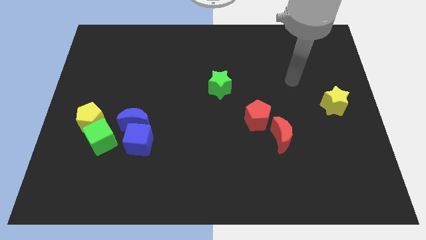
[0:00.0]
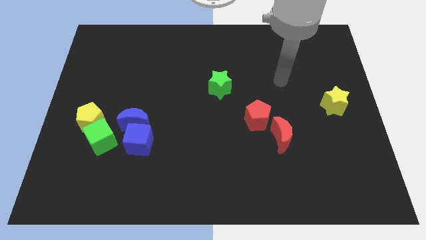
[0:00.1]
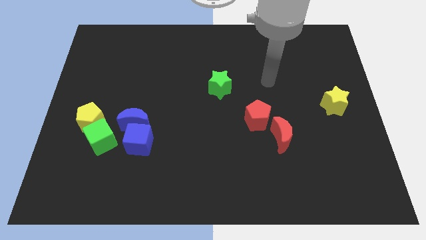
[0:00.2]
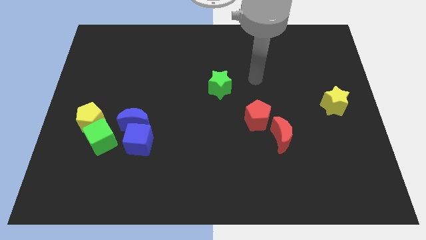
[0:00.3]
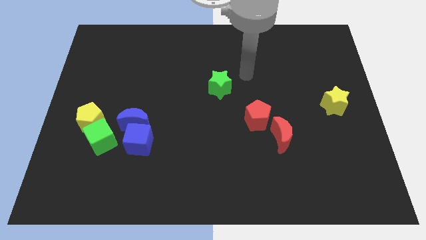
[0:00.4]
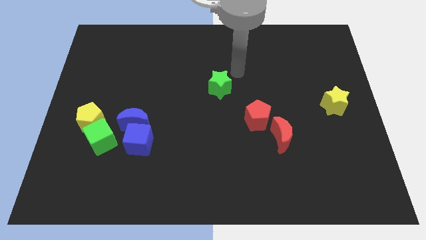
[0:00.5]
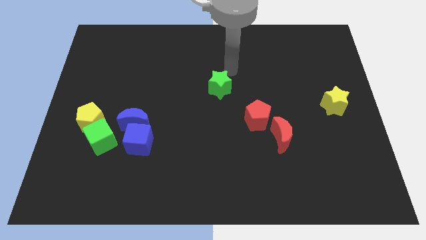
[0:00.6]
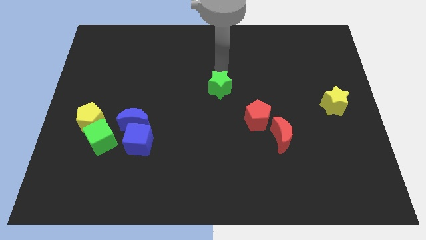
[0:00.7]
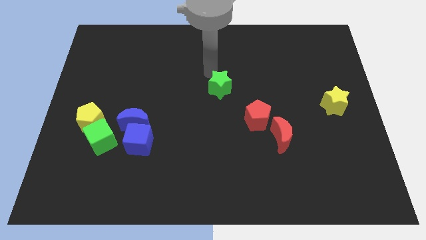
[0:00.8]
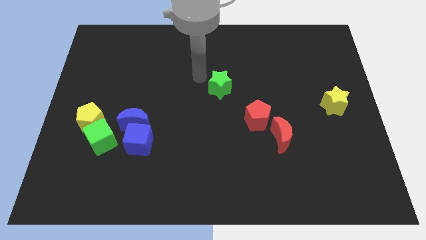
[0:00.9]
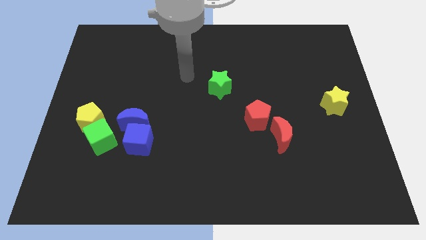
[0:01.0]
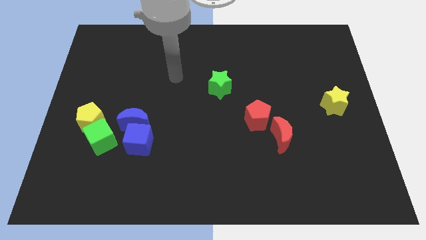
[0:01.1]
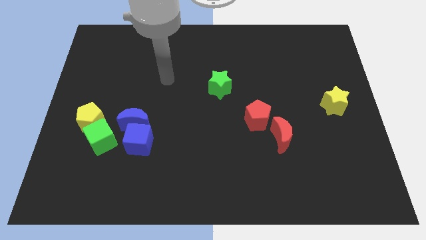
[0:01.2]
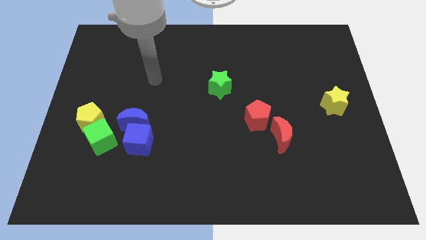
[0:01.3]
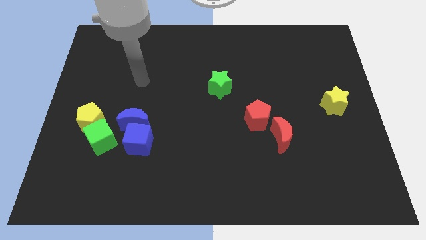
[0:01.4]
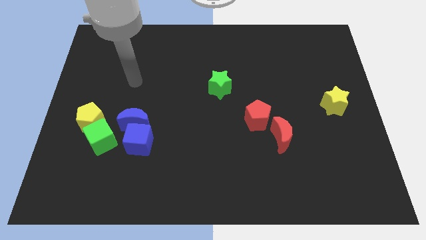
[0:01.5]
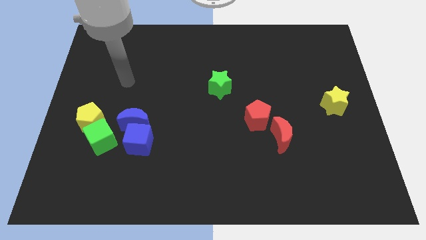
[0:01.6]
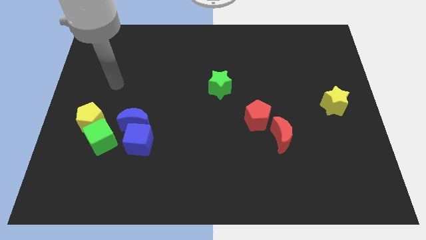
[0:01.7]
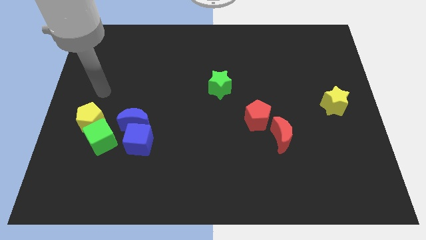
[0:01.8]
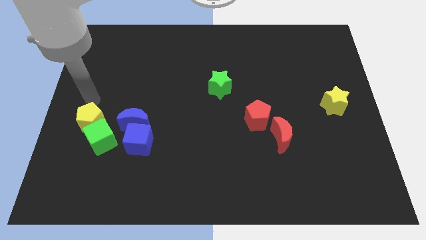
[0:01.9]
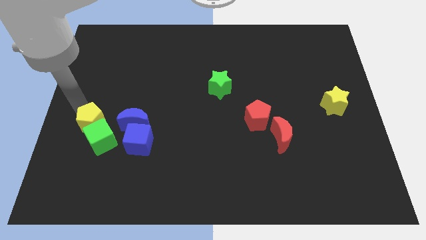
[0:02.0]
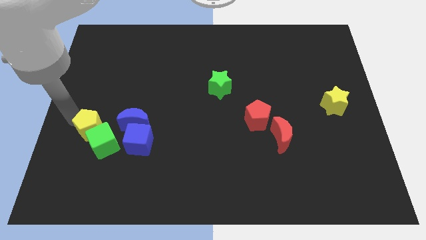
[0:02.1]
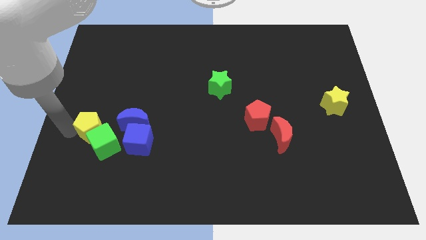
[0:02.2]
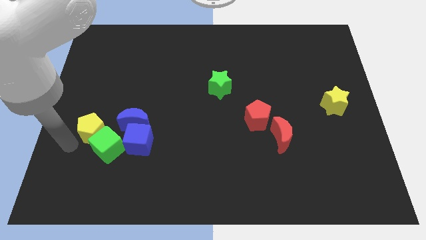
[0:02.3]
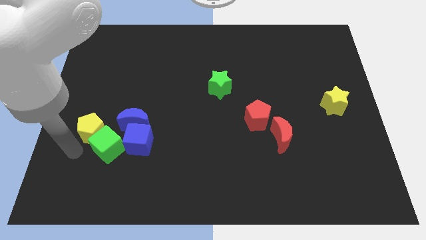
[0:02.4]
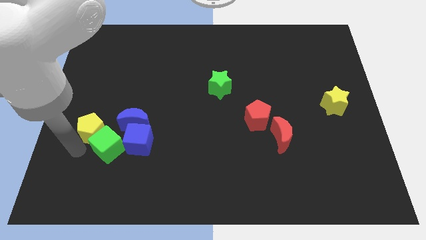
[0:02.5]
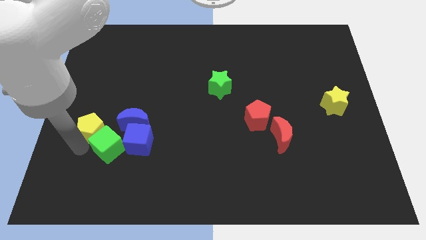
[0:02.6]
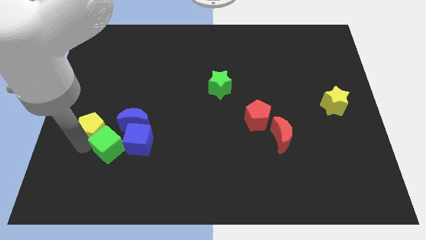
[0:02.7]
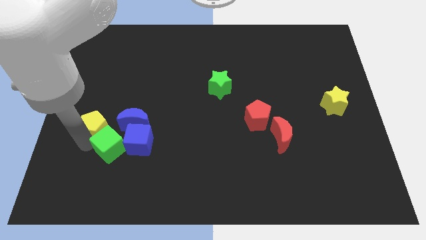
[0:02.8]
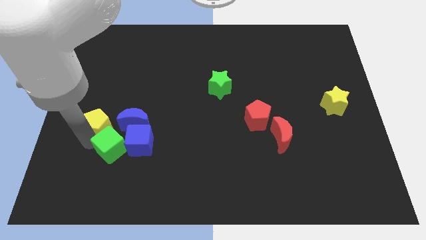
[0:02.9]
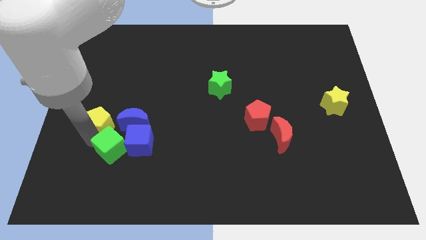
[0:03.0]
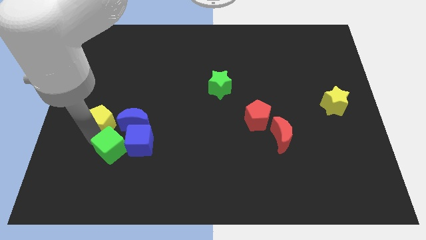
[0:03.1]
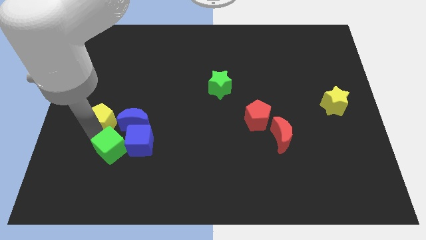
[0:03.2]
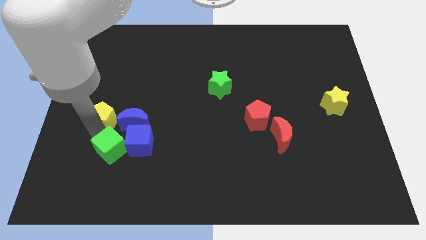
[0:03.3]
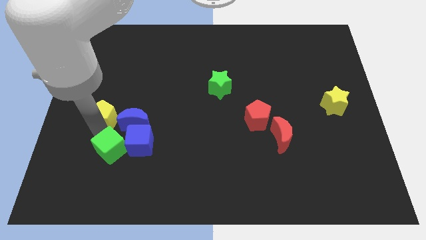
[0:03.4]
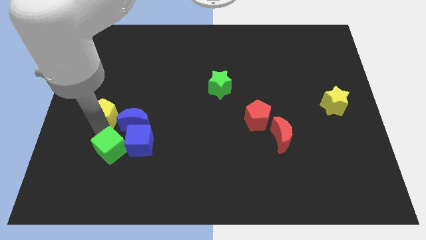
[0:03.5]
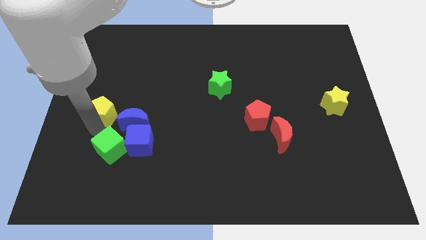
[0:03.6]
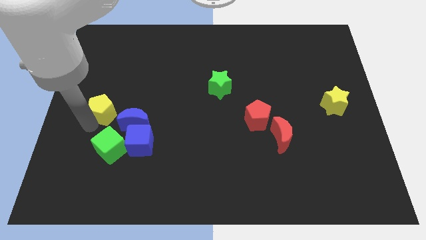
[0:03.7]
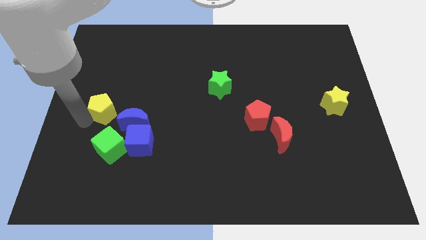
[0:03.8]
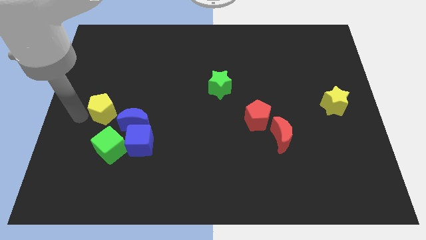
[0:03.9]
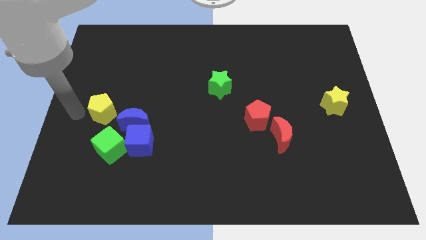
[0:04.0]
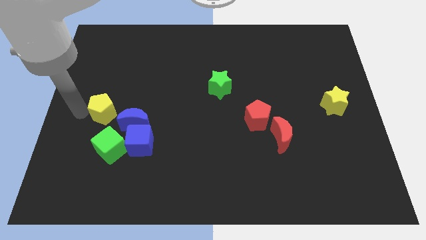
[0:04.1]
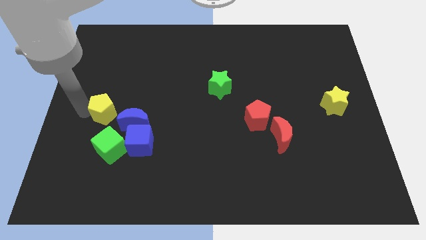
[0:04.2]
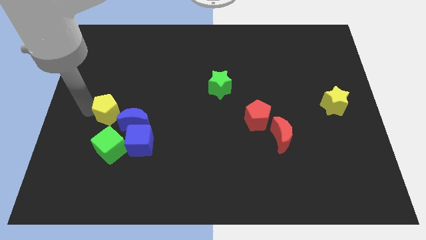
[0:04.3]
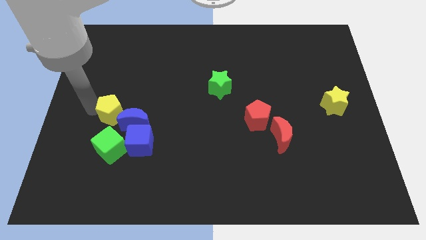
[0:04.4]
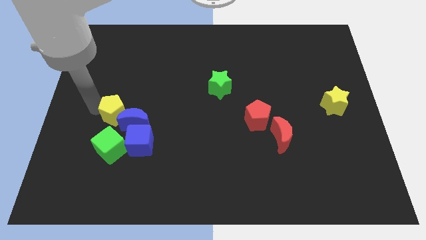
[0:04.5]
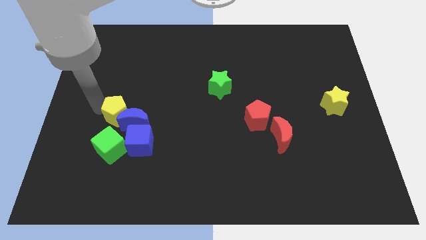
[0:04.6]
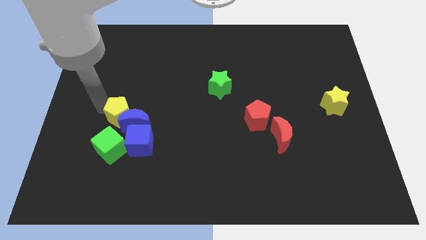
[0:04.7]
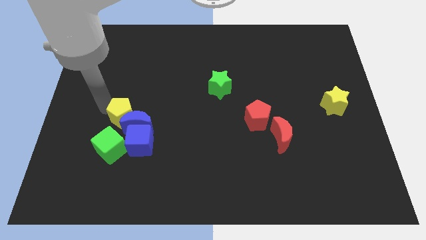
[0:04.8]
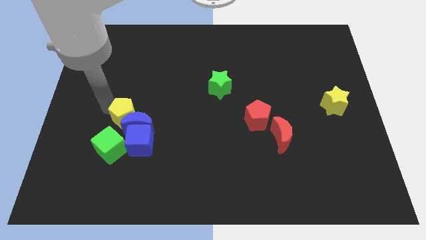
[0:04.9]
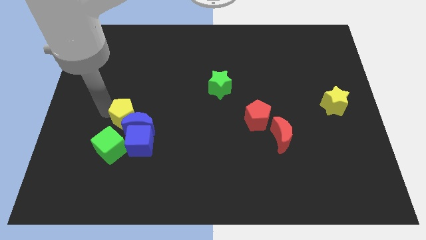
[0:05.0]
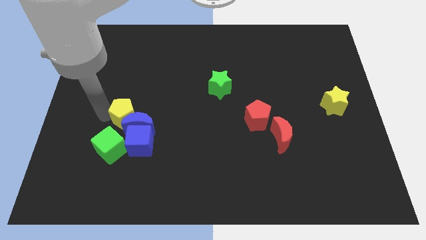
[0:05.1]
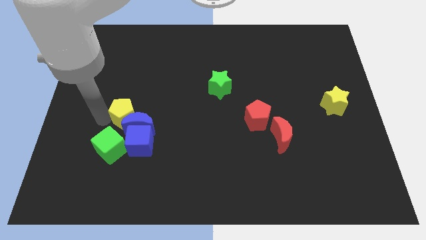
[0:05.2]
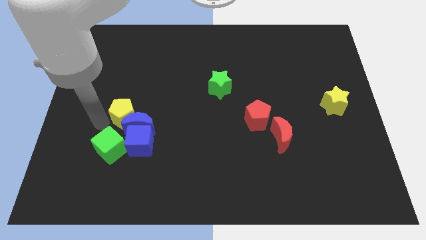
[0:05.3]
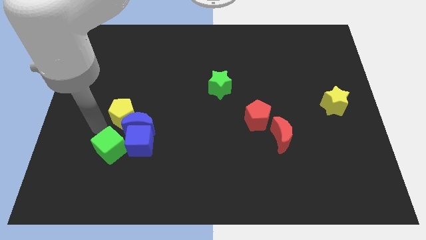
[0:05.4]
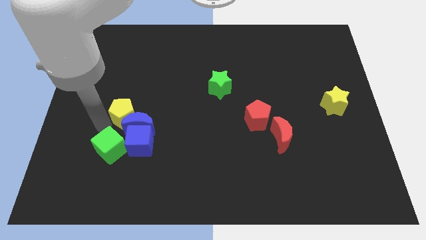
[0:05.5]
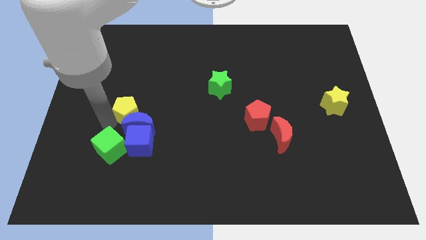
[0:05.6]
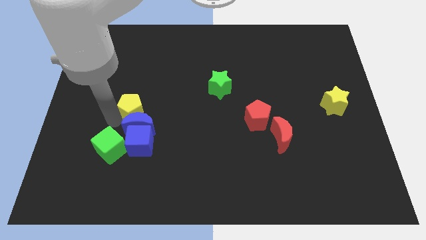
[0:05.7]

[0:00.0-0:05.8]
put the yellow pentagon to the top right side of the blue moon

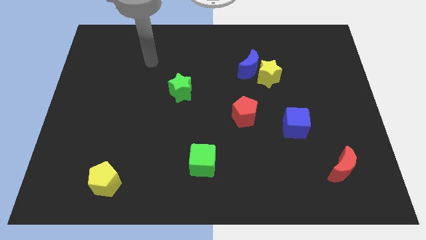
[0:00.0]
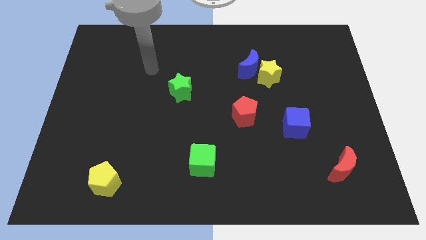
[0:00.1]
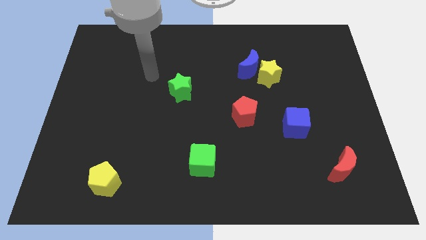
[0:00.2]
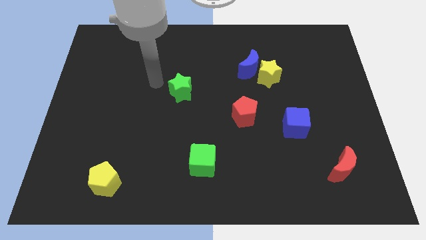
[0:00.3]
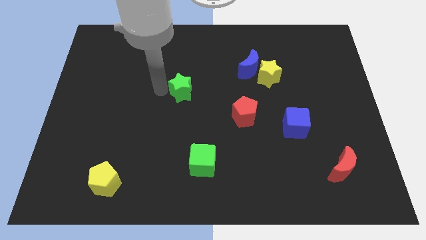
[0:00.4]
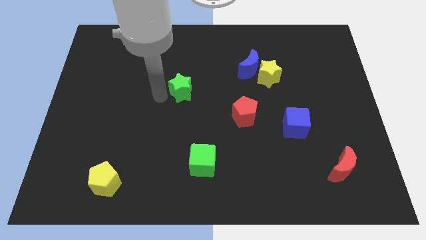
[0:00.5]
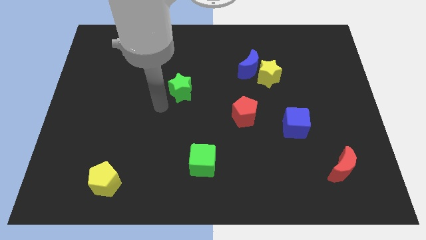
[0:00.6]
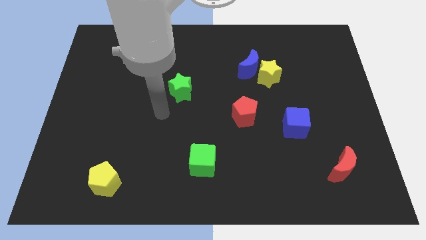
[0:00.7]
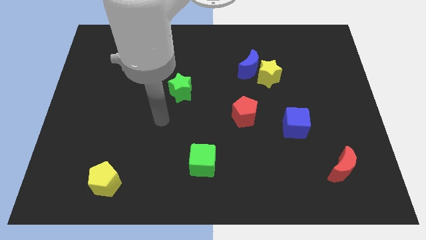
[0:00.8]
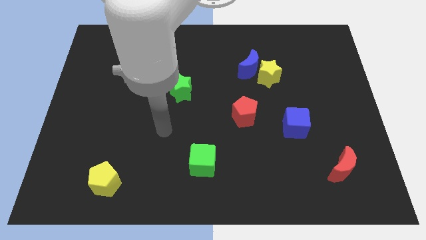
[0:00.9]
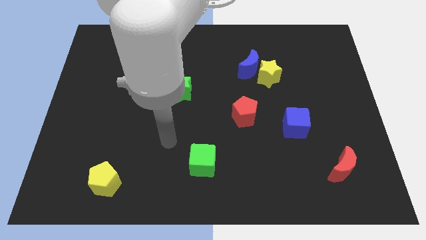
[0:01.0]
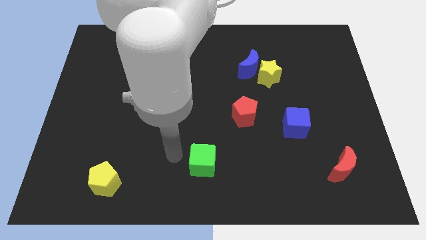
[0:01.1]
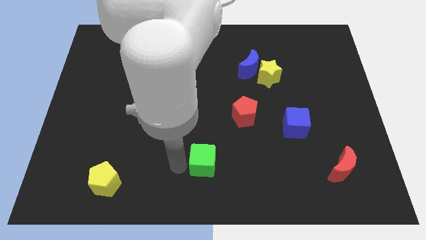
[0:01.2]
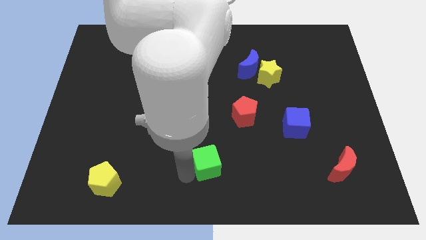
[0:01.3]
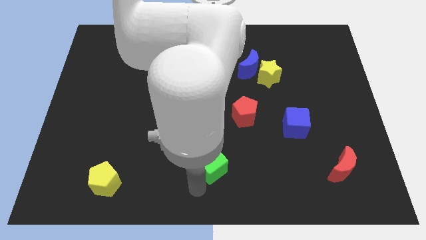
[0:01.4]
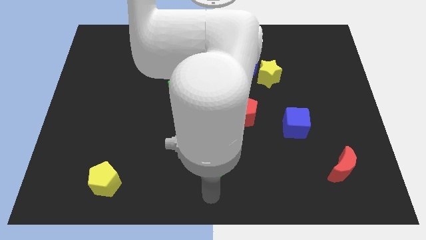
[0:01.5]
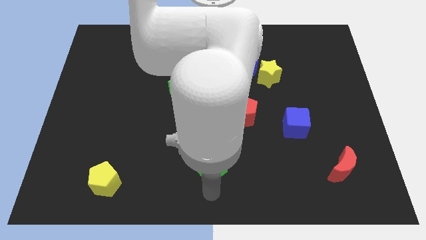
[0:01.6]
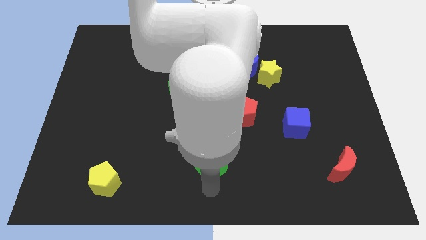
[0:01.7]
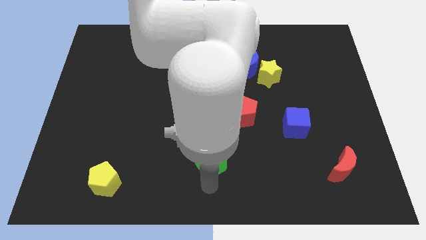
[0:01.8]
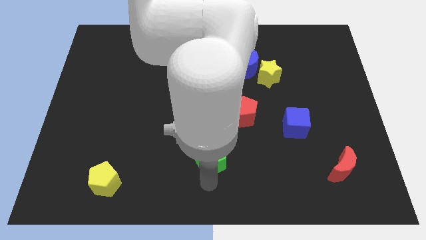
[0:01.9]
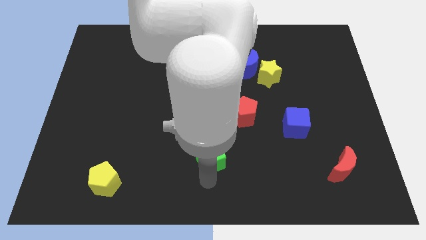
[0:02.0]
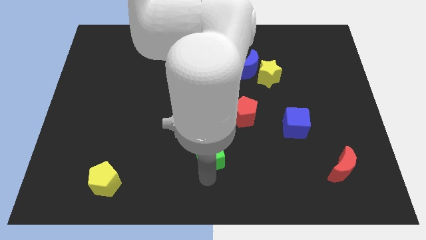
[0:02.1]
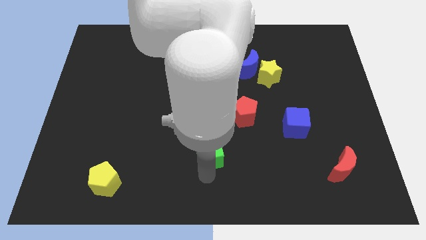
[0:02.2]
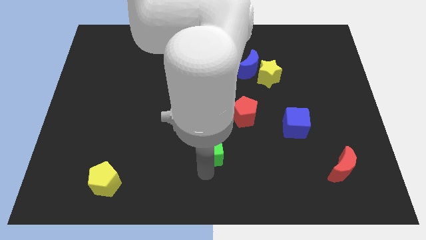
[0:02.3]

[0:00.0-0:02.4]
move the green cube diagonally down and to the left of the red pentagon
